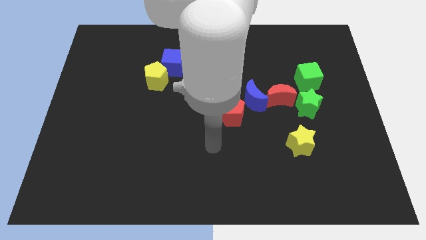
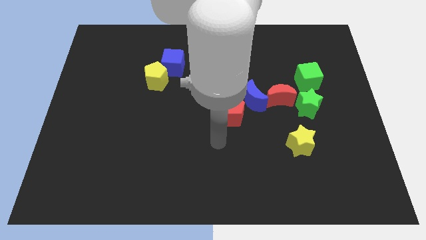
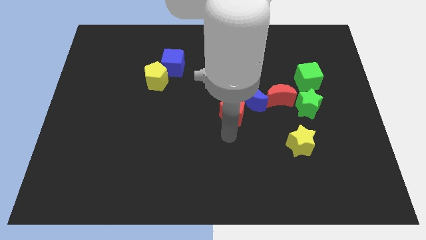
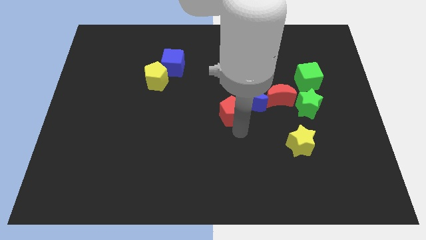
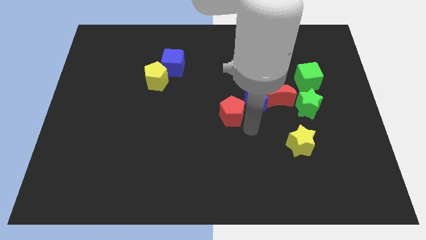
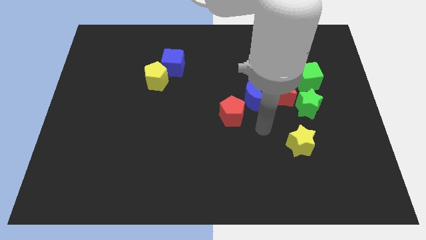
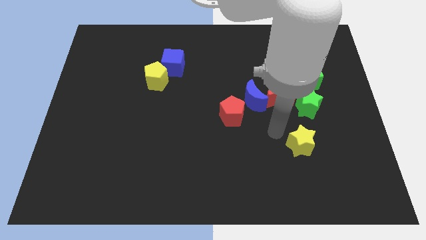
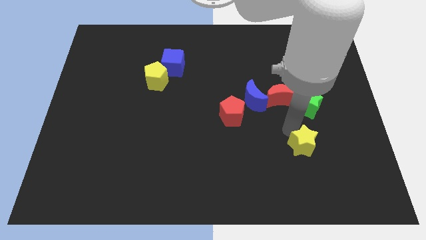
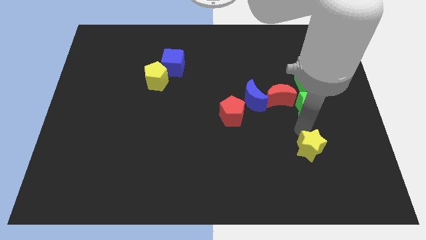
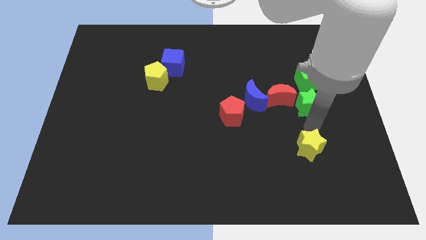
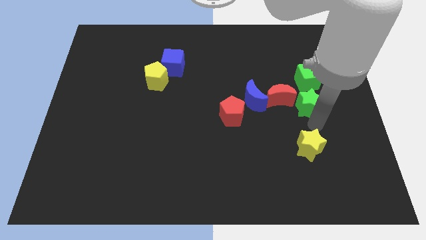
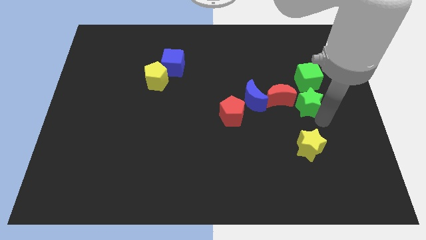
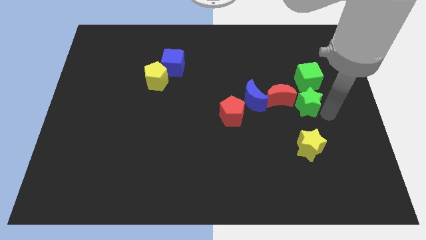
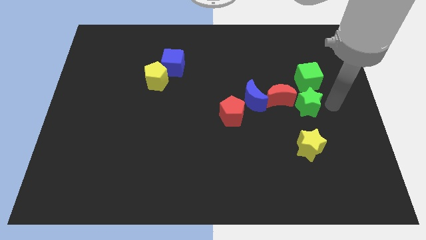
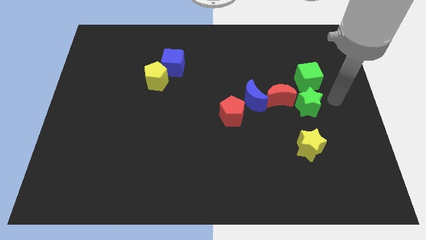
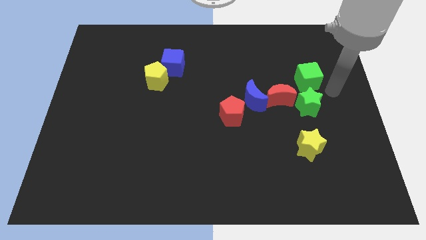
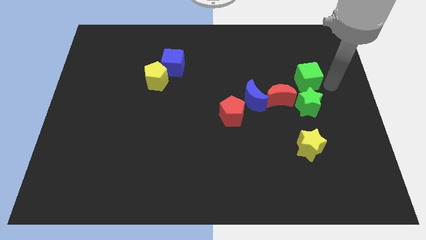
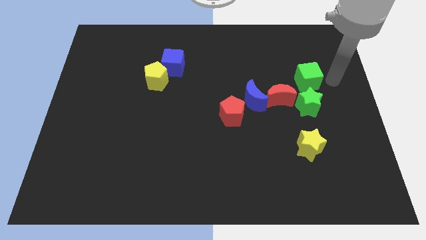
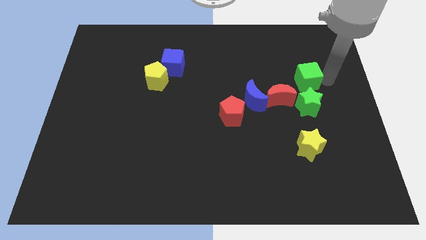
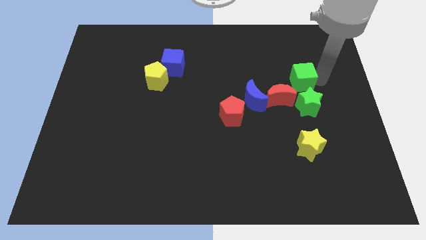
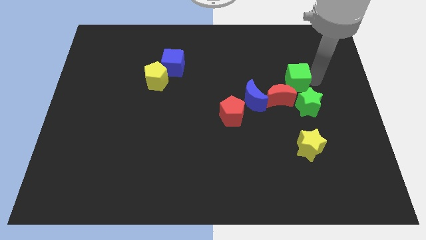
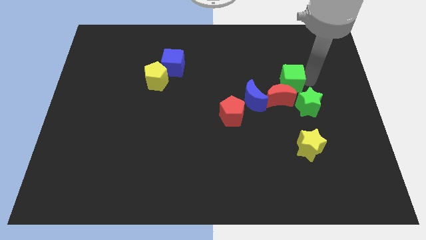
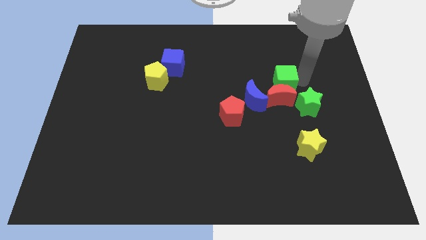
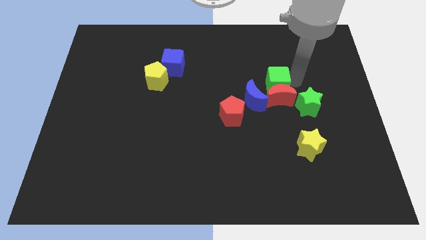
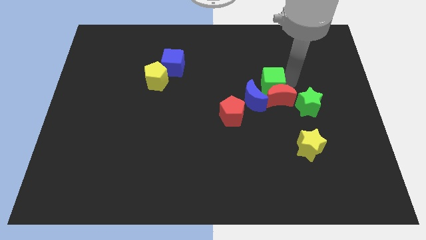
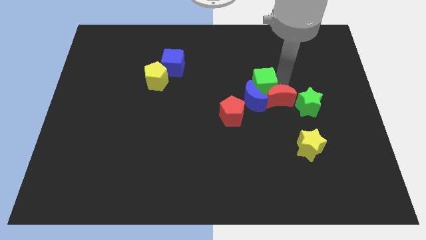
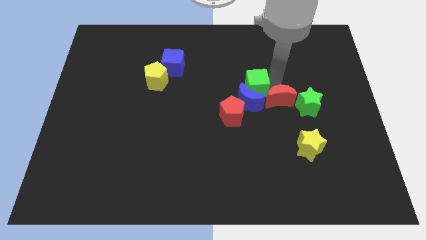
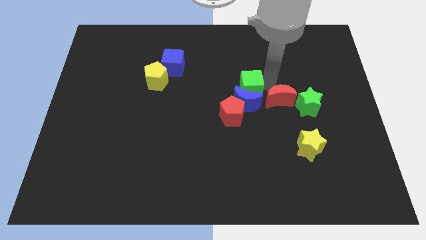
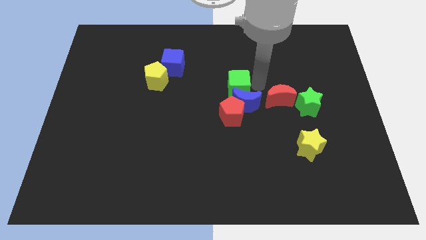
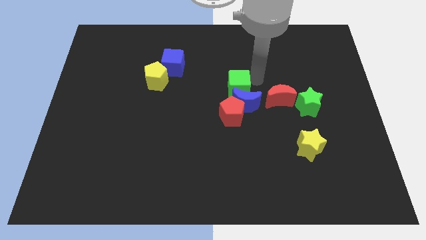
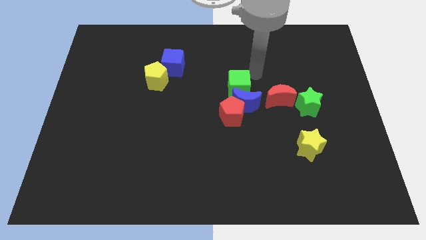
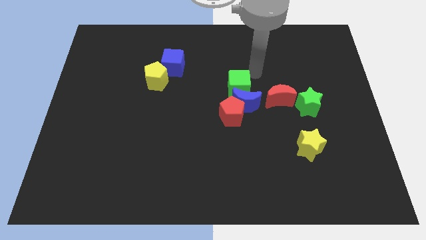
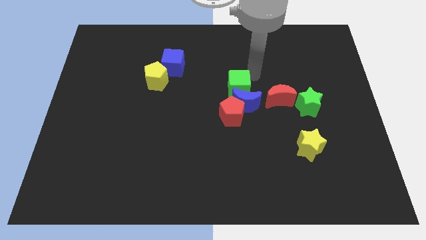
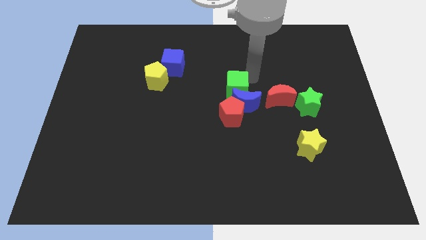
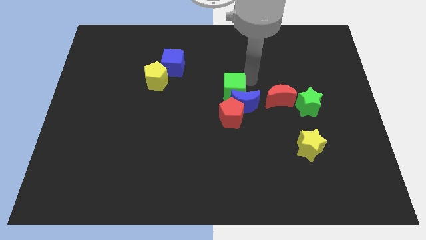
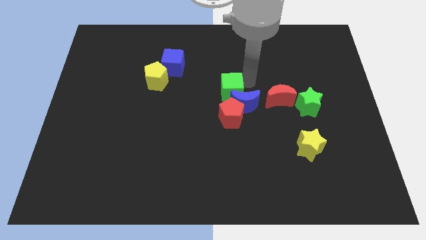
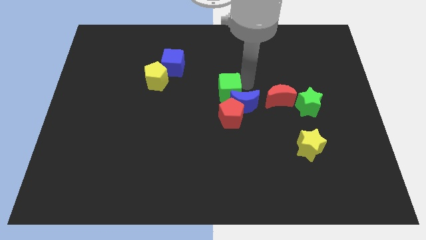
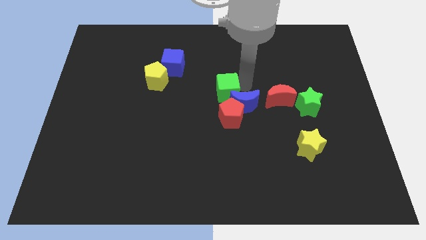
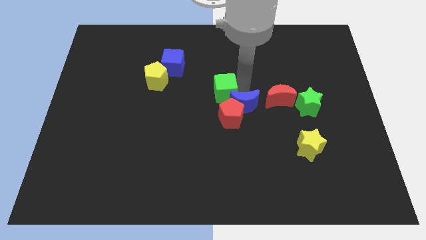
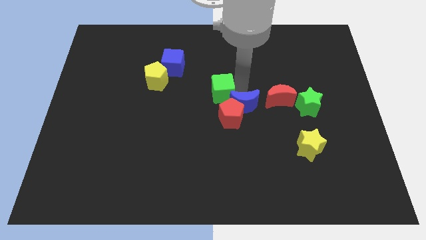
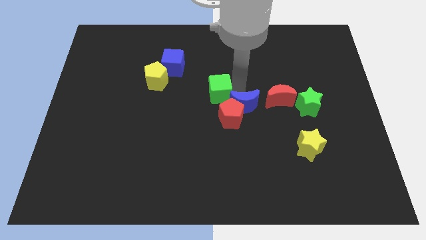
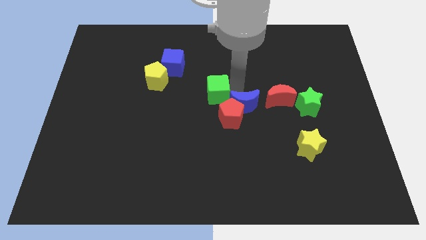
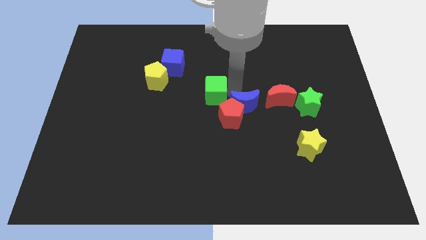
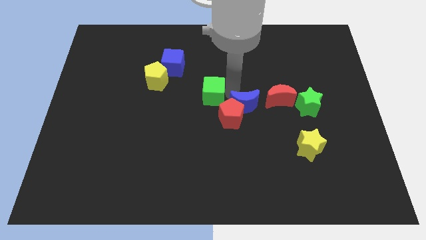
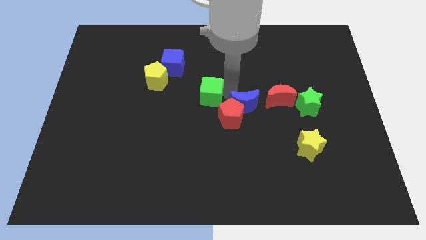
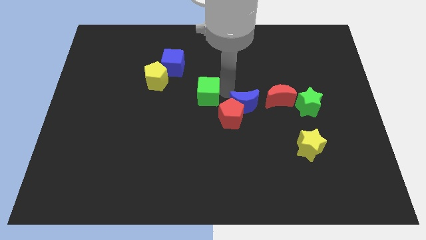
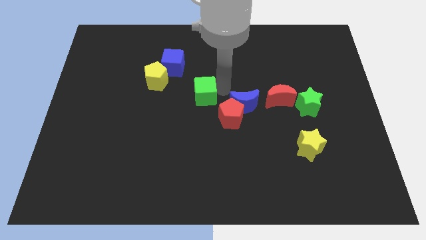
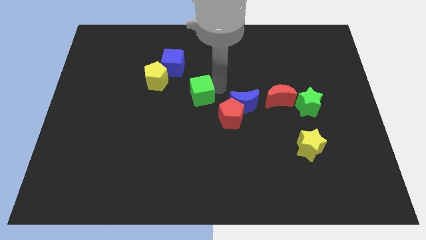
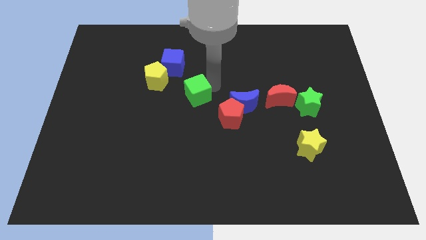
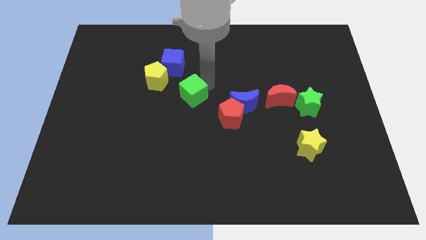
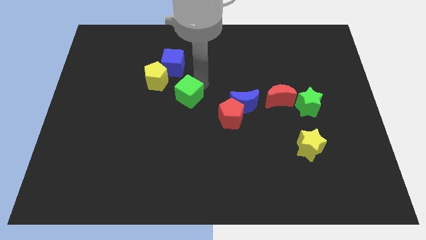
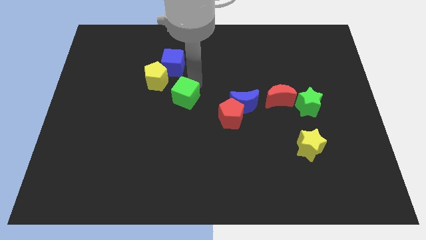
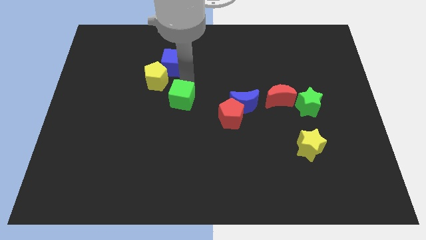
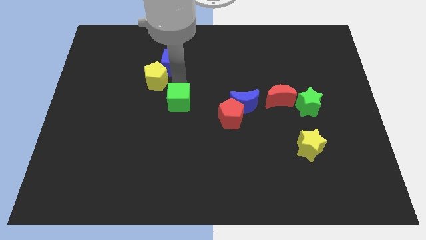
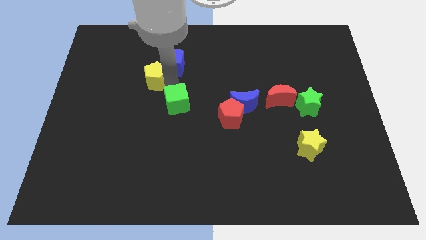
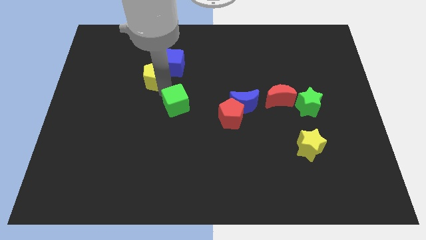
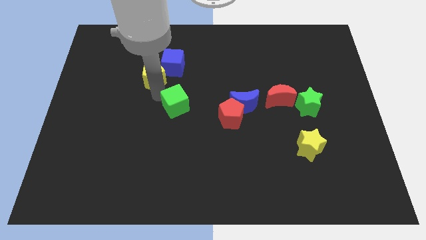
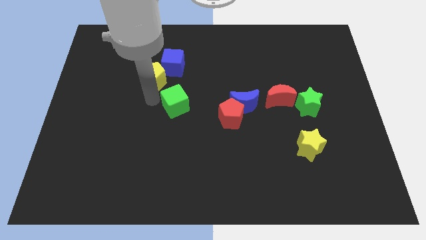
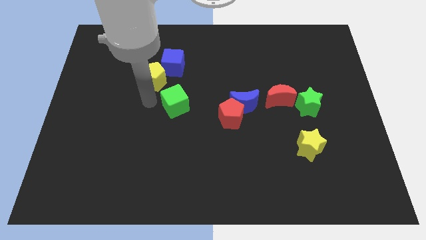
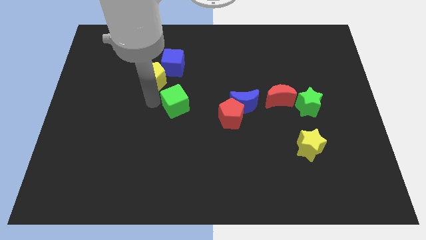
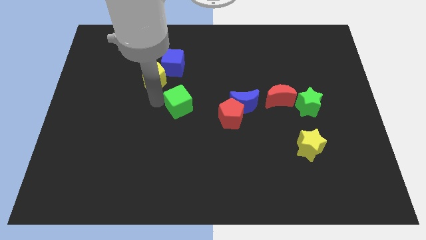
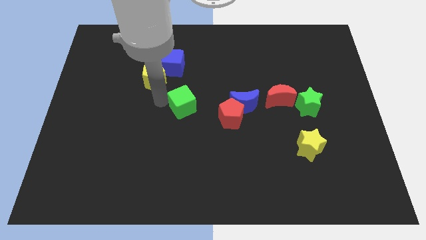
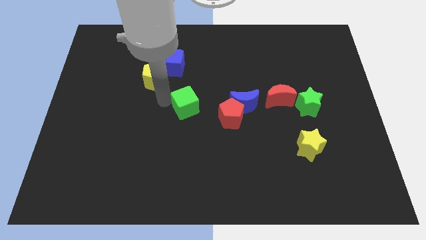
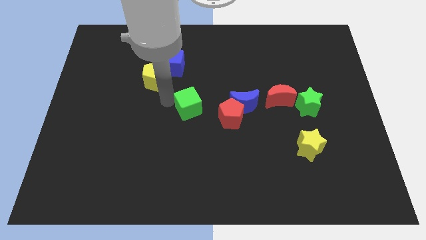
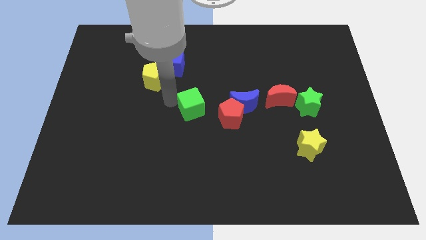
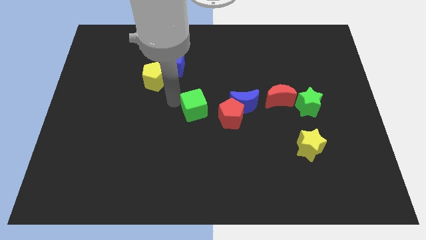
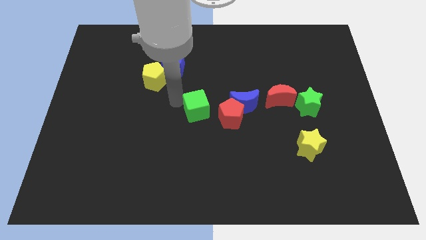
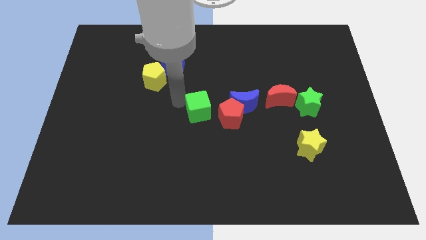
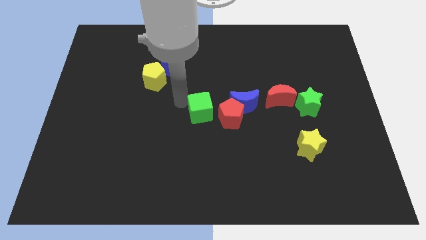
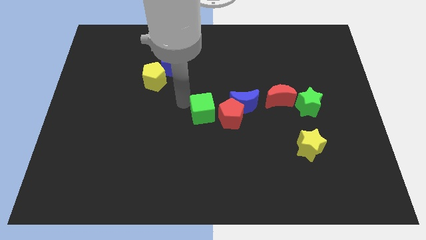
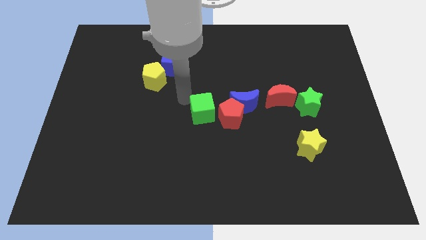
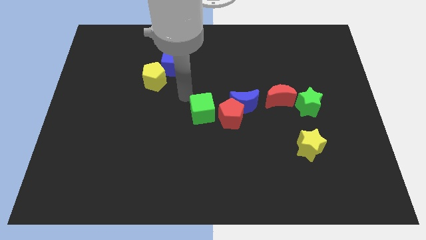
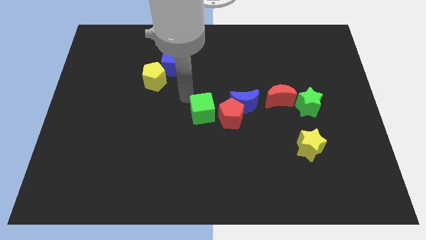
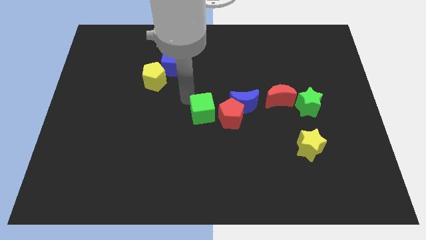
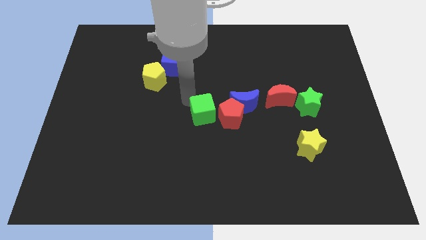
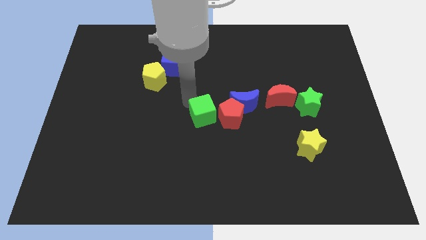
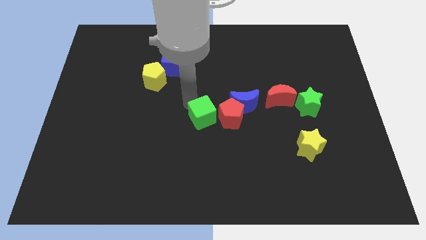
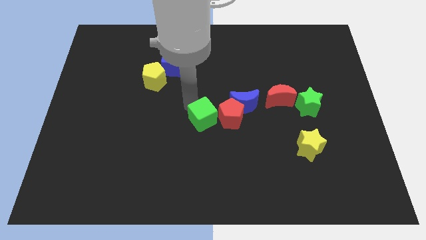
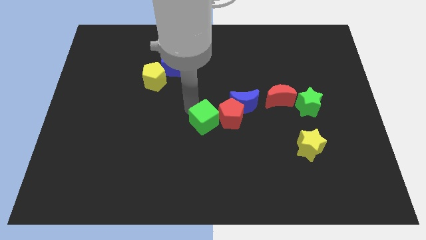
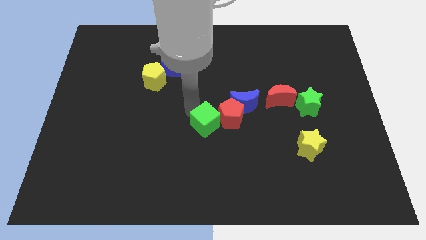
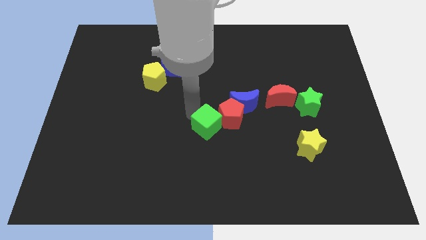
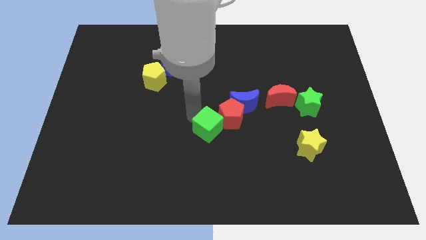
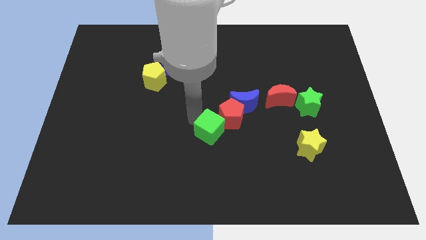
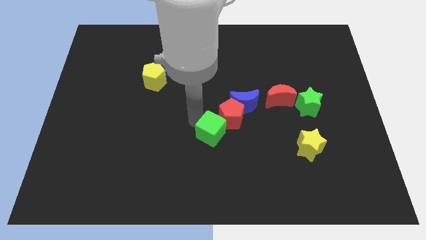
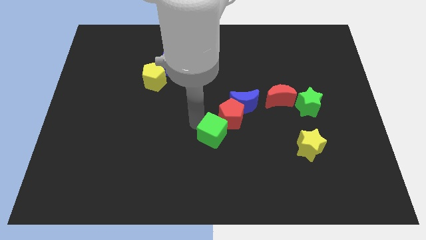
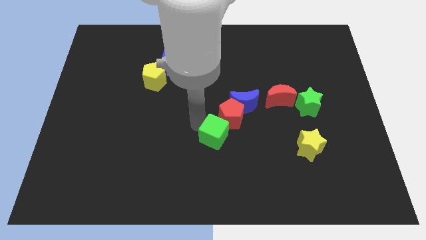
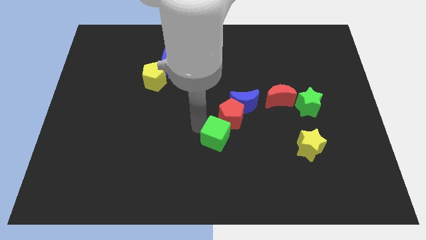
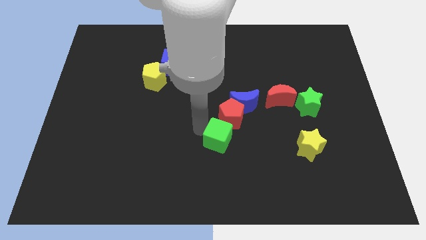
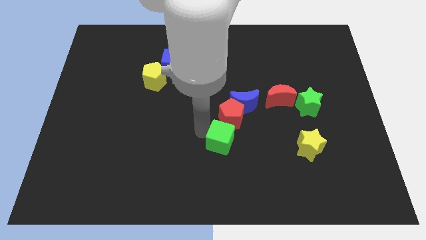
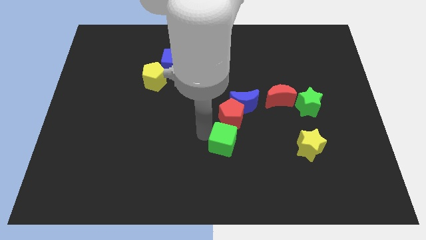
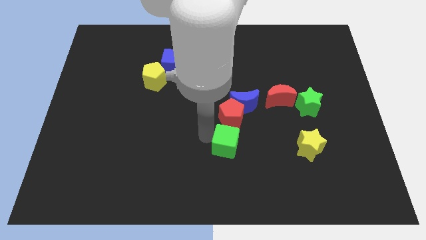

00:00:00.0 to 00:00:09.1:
move the green cube to the bottom of the blue moon
